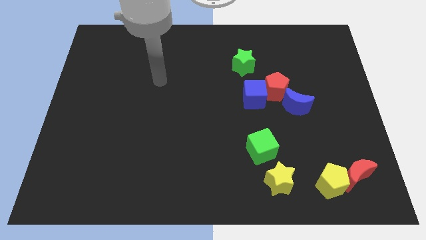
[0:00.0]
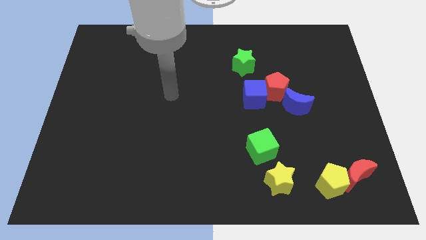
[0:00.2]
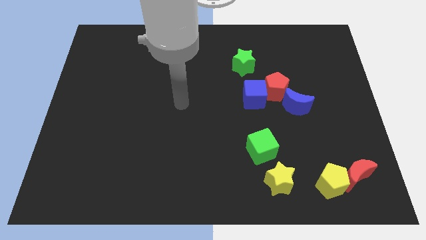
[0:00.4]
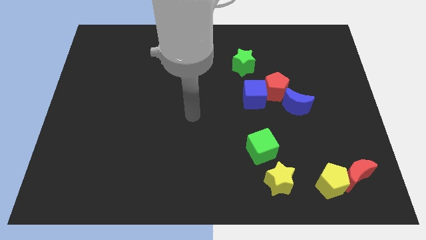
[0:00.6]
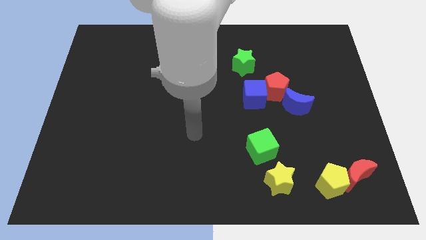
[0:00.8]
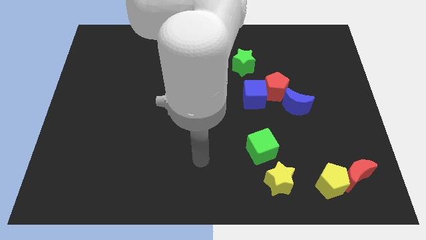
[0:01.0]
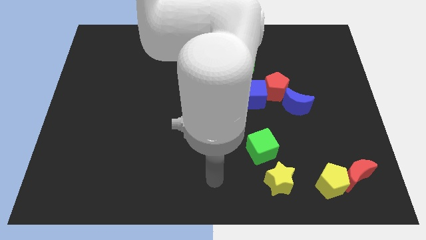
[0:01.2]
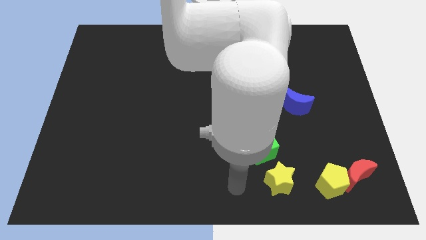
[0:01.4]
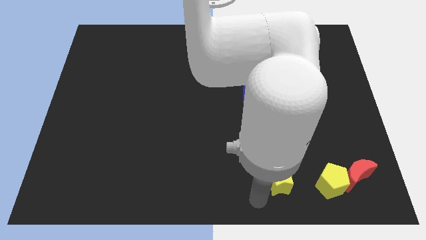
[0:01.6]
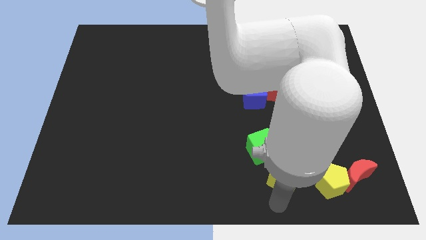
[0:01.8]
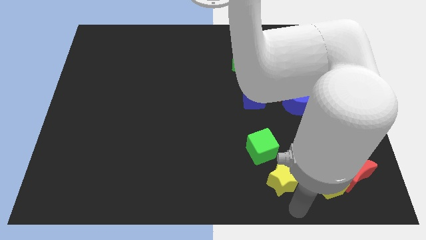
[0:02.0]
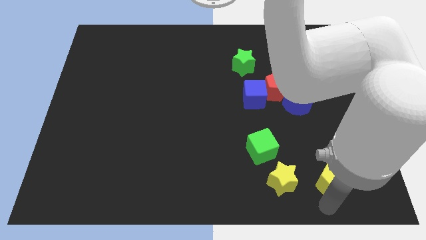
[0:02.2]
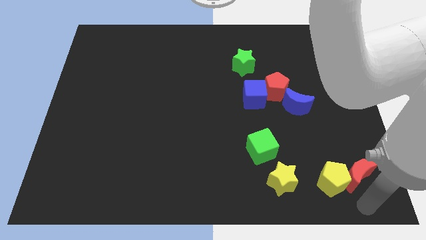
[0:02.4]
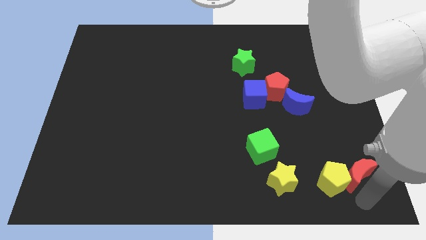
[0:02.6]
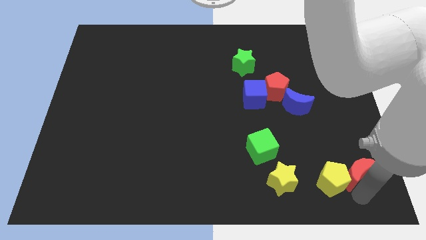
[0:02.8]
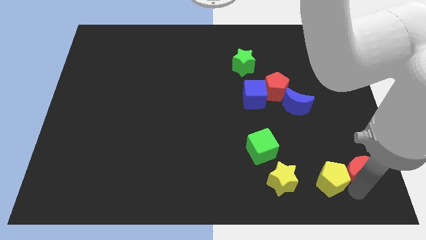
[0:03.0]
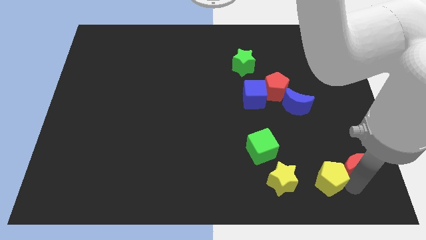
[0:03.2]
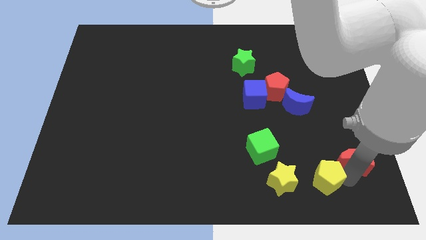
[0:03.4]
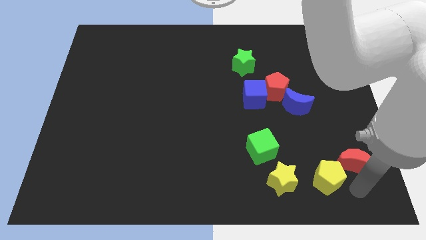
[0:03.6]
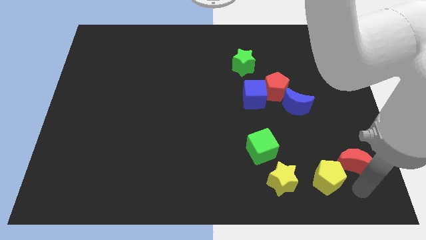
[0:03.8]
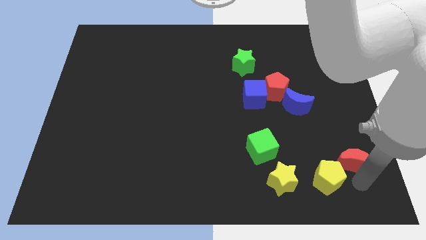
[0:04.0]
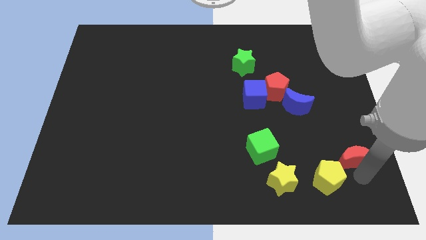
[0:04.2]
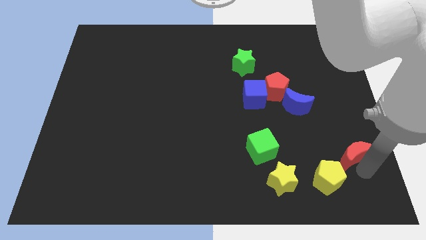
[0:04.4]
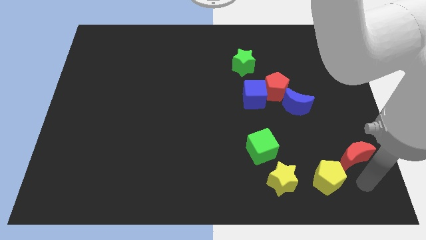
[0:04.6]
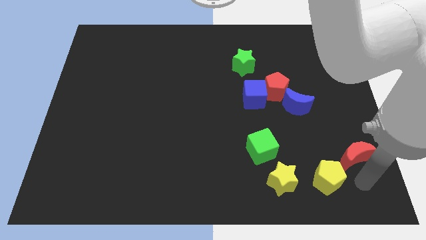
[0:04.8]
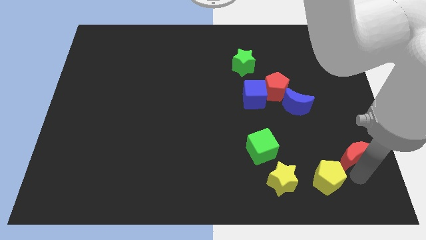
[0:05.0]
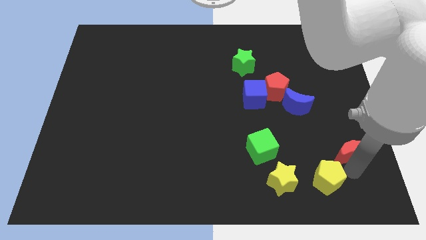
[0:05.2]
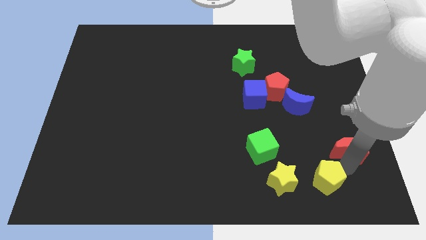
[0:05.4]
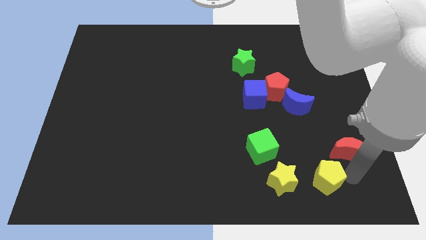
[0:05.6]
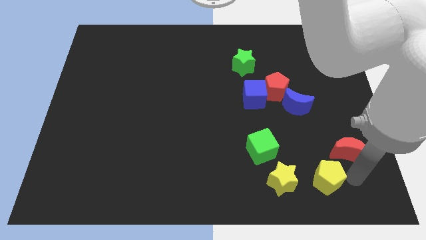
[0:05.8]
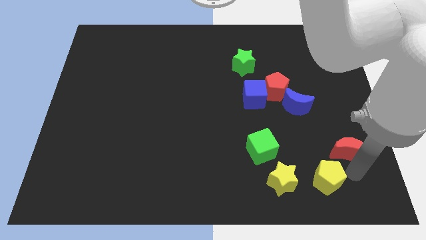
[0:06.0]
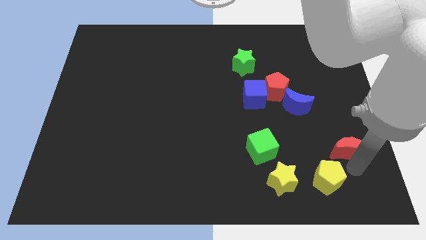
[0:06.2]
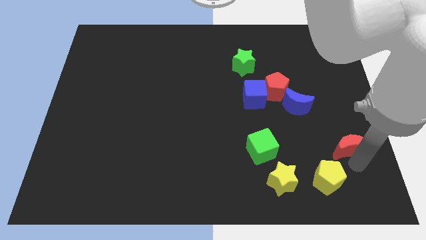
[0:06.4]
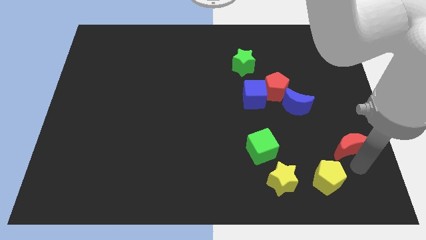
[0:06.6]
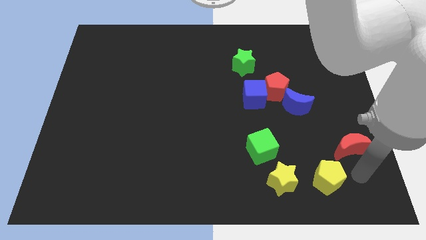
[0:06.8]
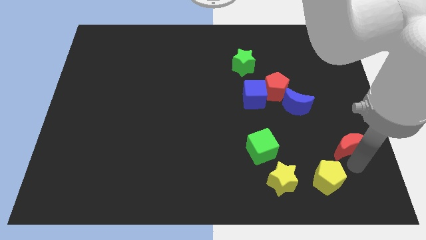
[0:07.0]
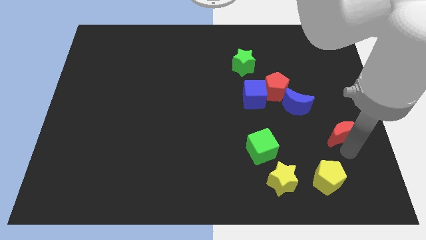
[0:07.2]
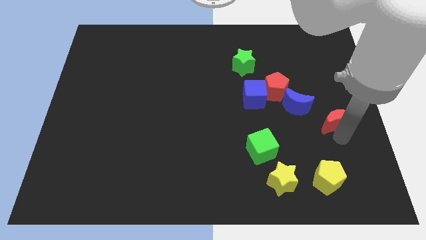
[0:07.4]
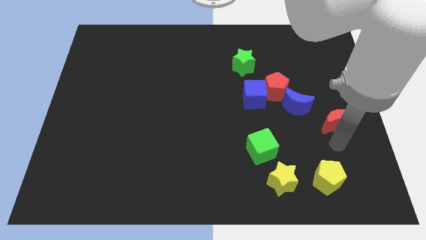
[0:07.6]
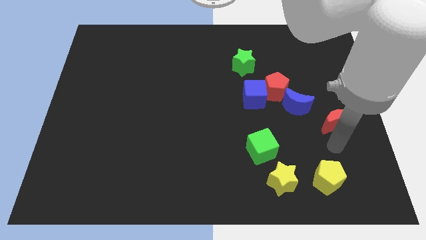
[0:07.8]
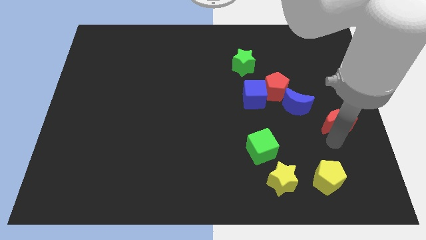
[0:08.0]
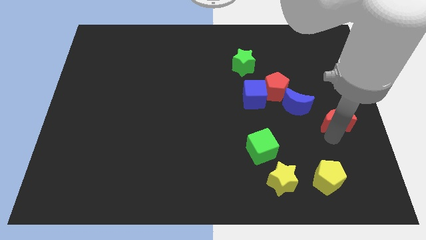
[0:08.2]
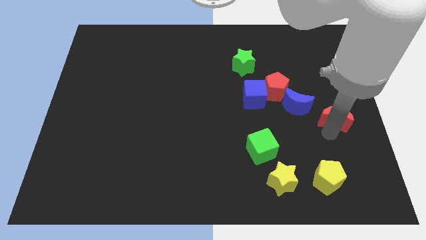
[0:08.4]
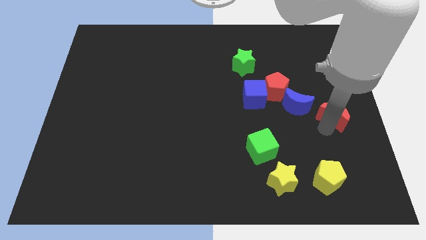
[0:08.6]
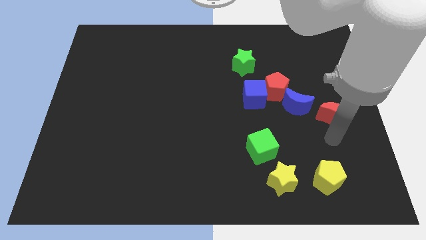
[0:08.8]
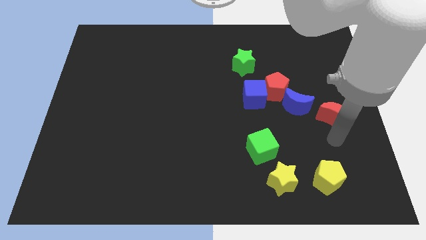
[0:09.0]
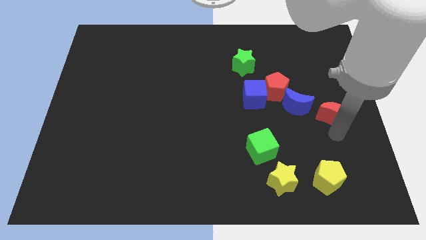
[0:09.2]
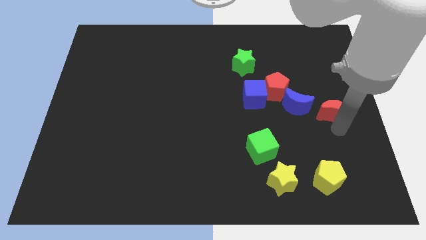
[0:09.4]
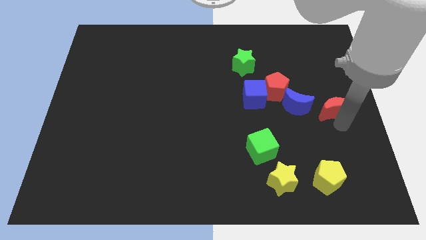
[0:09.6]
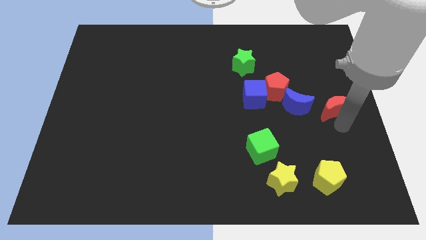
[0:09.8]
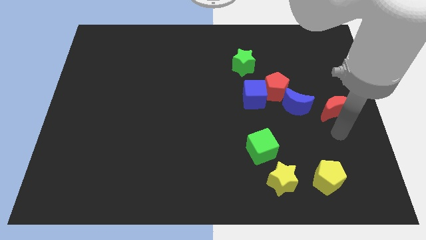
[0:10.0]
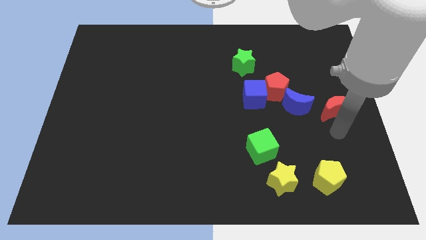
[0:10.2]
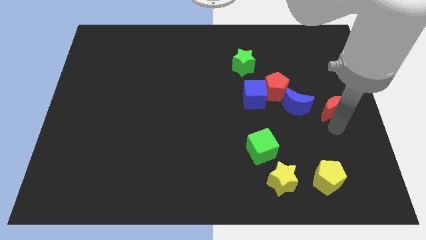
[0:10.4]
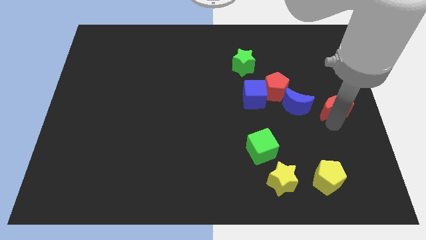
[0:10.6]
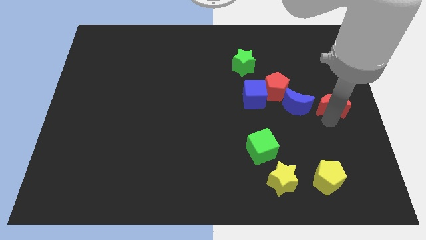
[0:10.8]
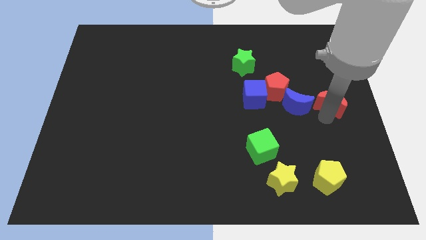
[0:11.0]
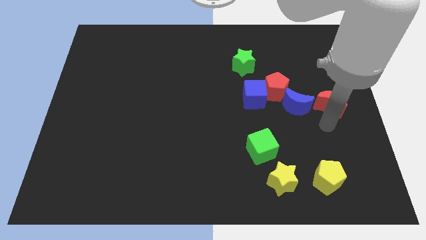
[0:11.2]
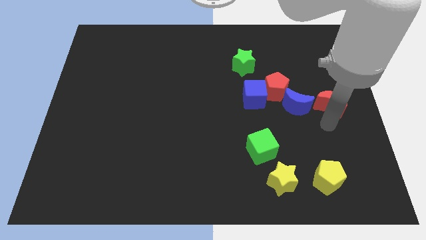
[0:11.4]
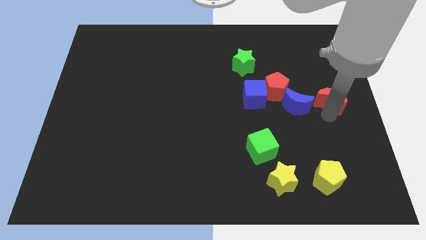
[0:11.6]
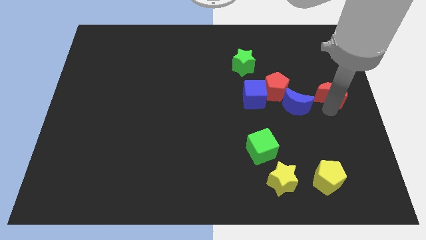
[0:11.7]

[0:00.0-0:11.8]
slide the red moon up

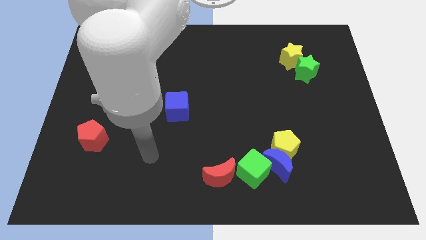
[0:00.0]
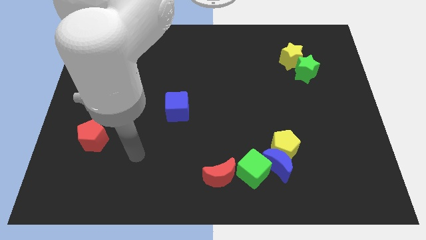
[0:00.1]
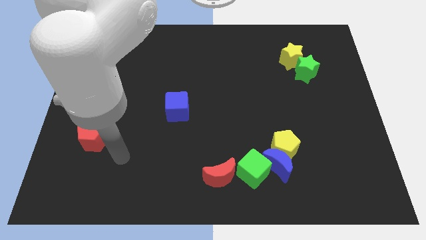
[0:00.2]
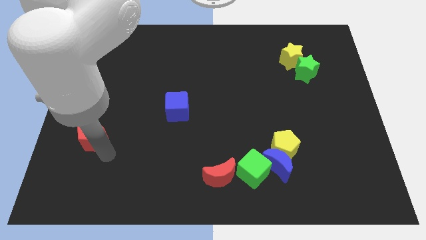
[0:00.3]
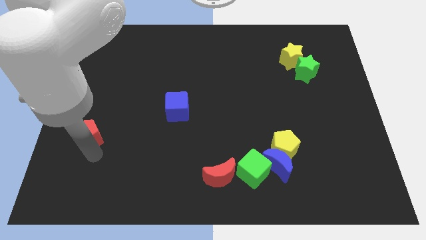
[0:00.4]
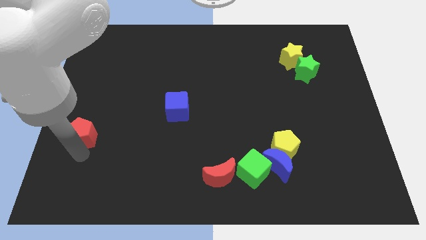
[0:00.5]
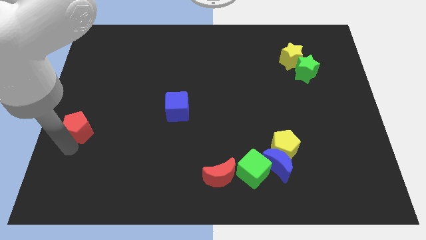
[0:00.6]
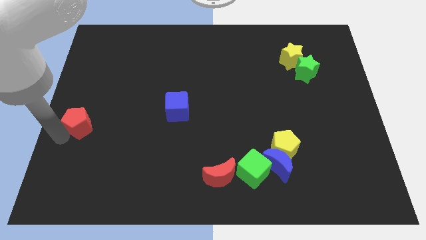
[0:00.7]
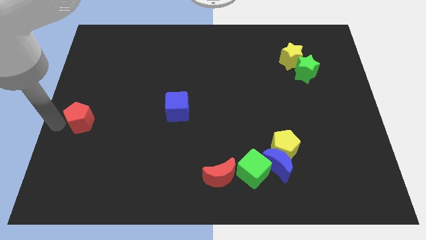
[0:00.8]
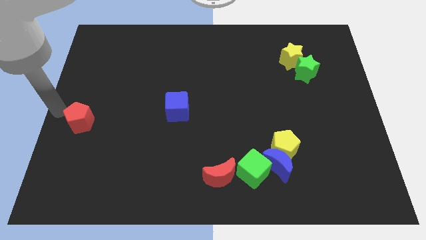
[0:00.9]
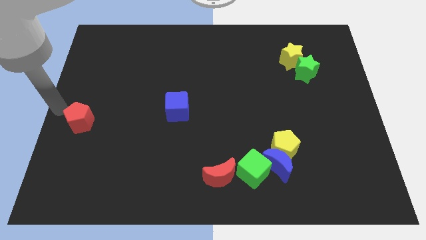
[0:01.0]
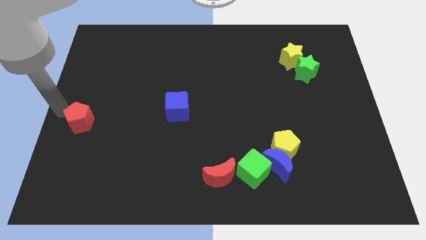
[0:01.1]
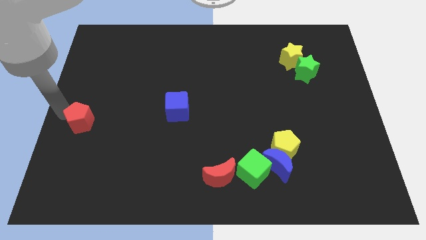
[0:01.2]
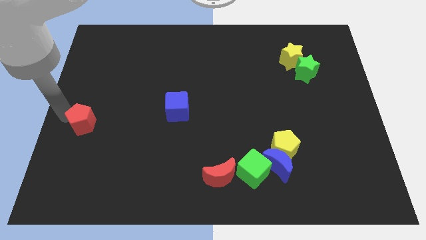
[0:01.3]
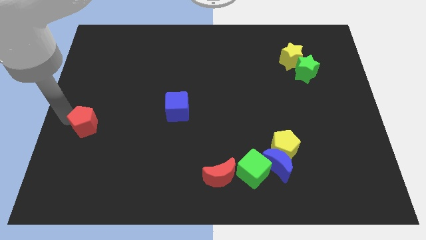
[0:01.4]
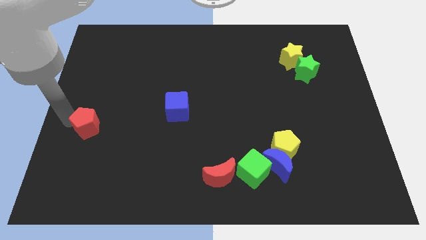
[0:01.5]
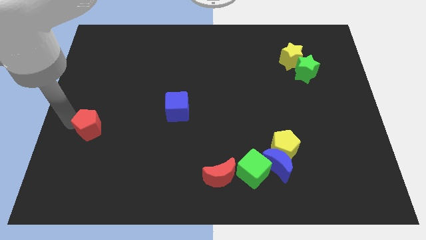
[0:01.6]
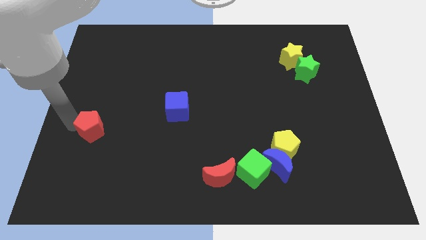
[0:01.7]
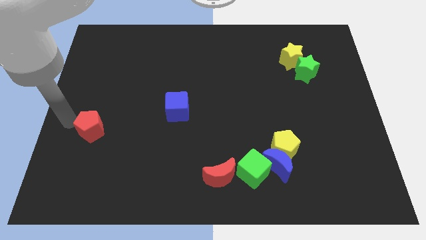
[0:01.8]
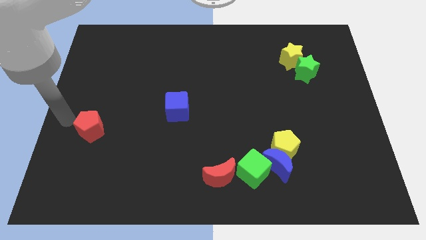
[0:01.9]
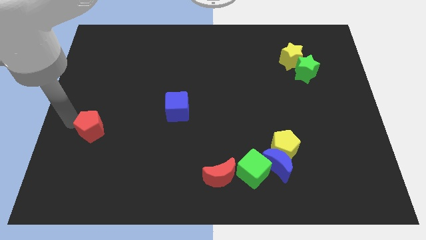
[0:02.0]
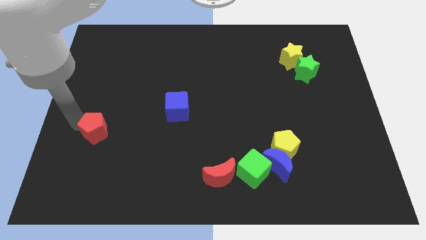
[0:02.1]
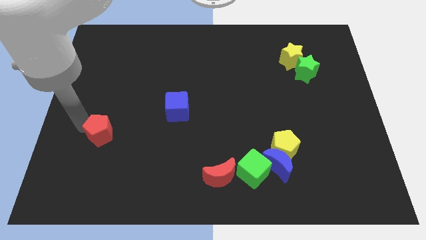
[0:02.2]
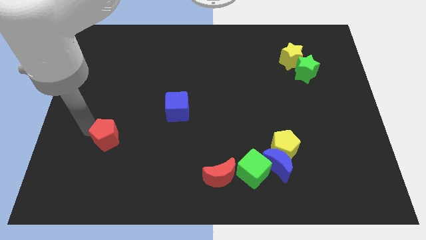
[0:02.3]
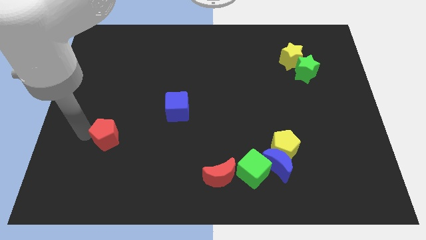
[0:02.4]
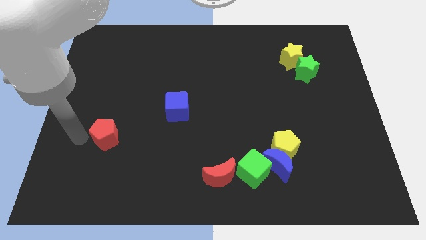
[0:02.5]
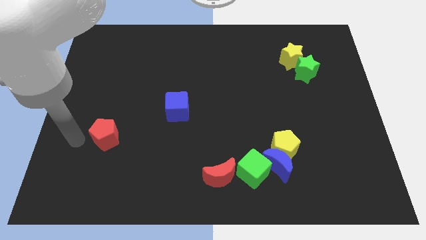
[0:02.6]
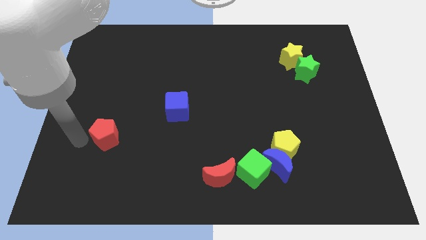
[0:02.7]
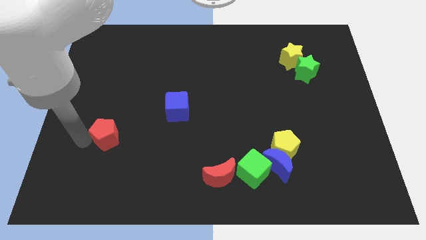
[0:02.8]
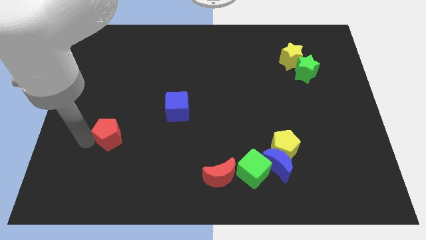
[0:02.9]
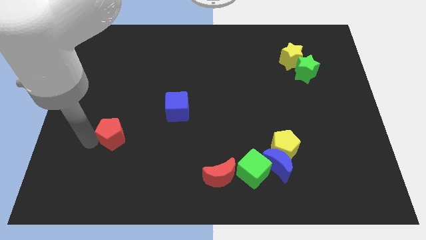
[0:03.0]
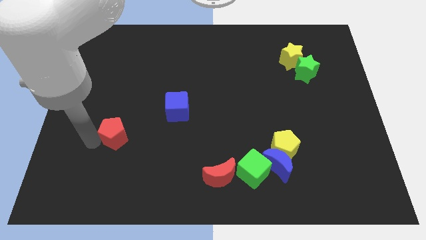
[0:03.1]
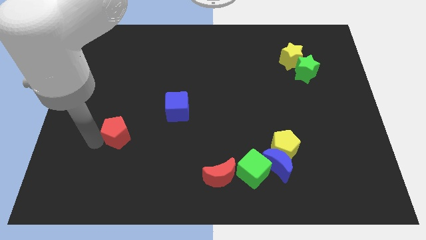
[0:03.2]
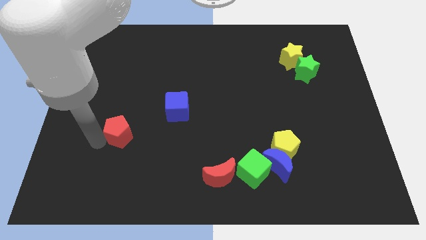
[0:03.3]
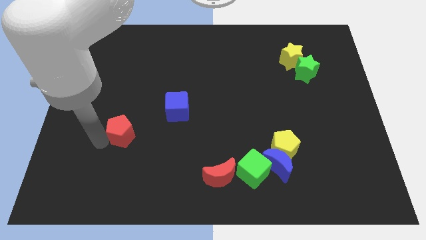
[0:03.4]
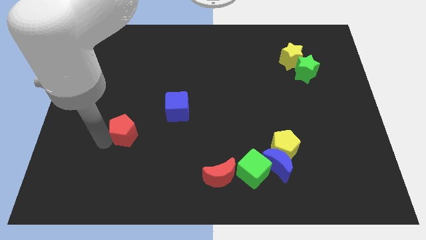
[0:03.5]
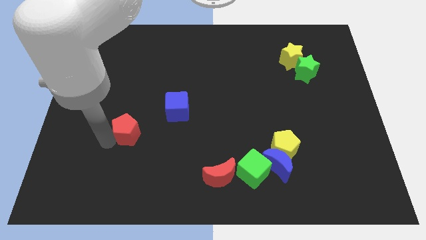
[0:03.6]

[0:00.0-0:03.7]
slightly move the red pentagon to the right
